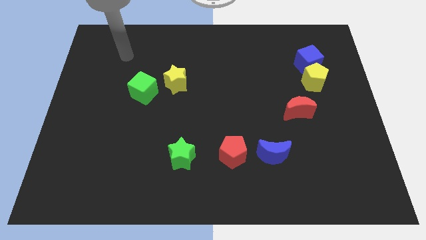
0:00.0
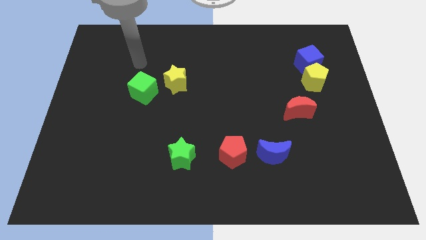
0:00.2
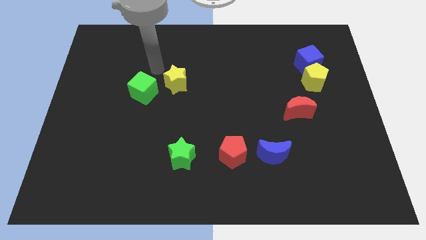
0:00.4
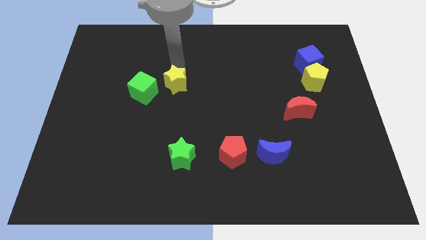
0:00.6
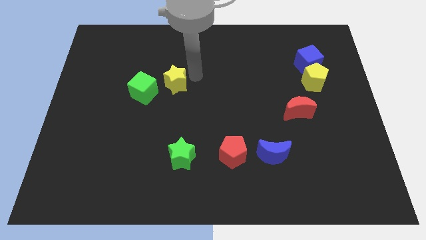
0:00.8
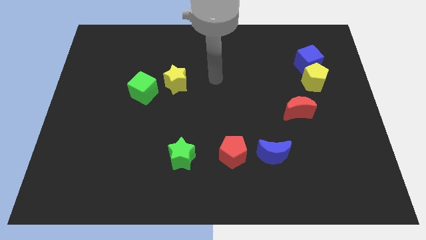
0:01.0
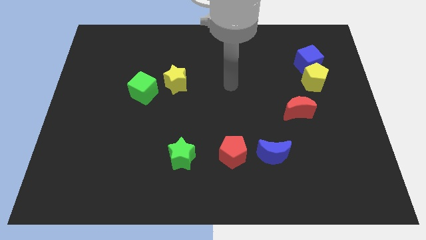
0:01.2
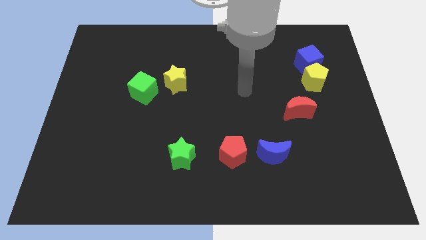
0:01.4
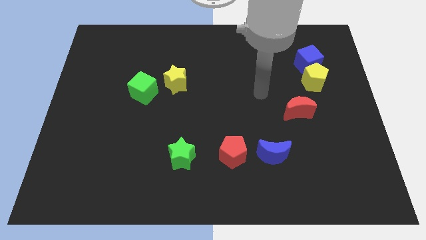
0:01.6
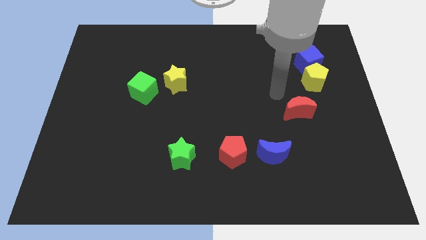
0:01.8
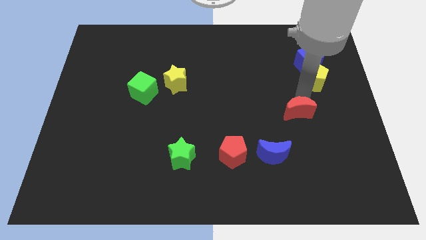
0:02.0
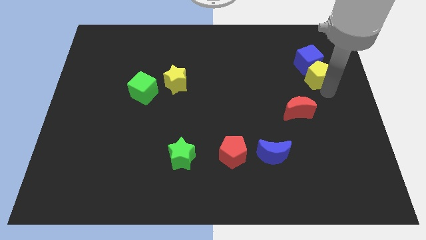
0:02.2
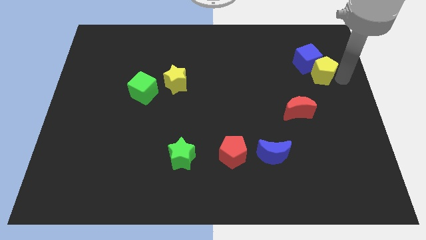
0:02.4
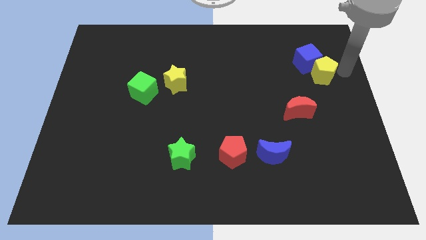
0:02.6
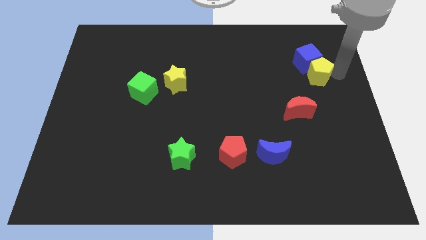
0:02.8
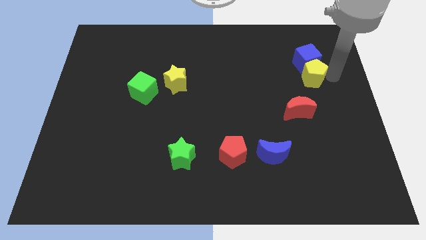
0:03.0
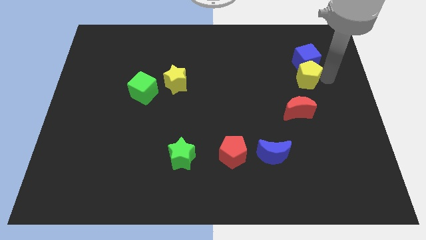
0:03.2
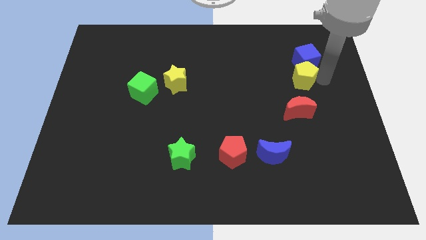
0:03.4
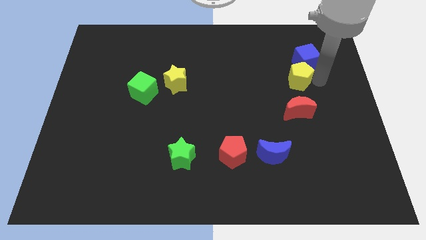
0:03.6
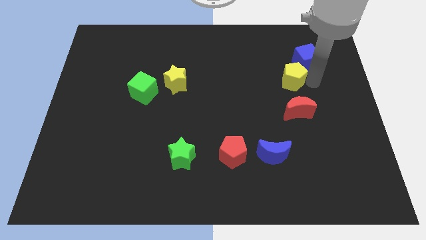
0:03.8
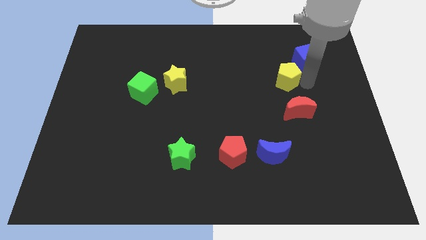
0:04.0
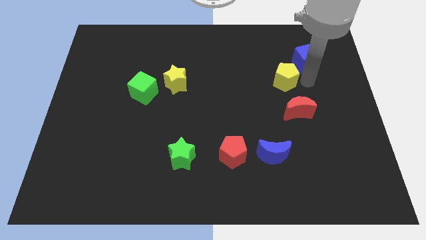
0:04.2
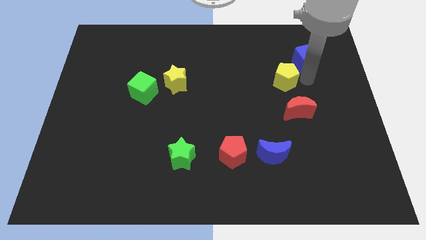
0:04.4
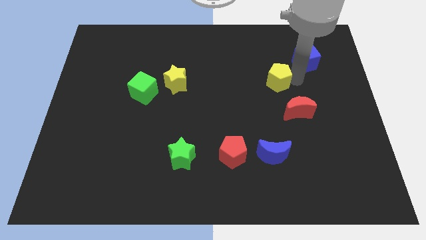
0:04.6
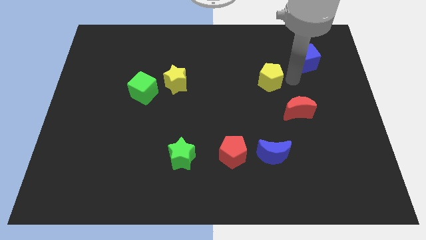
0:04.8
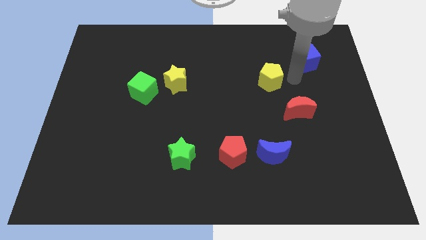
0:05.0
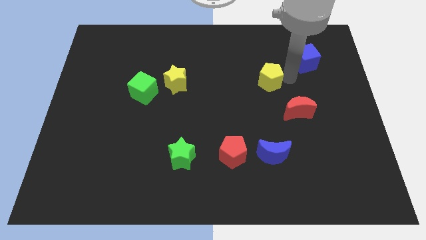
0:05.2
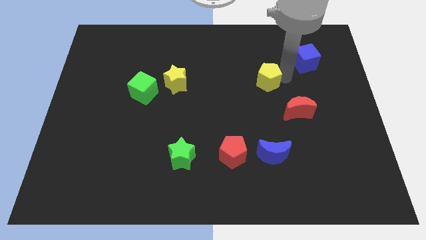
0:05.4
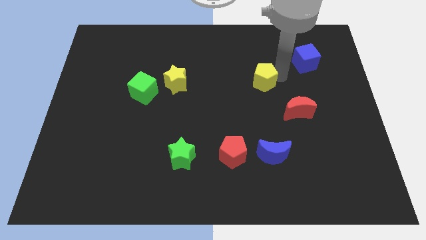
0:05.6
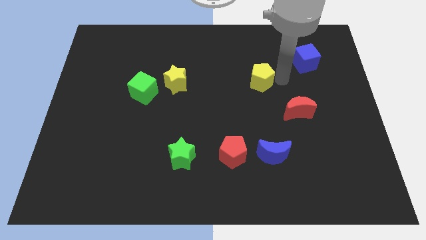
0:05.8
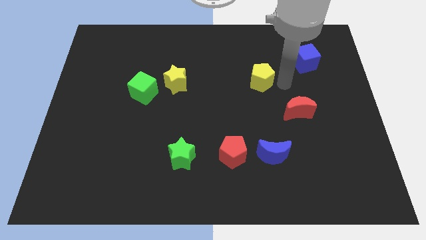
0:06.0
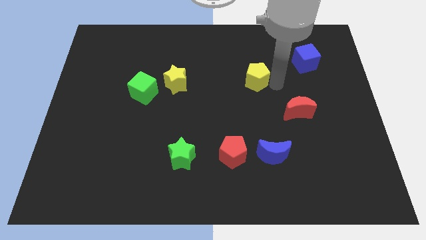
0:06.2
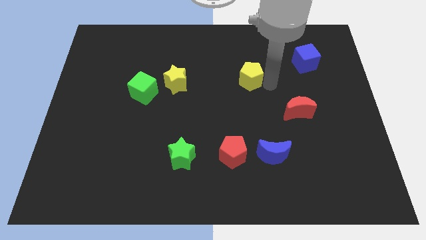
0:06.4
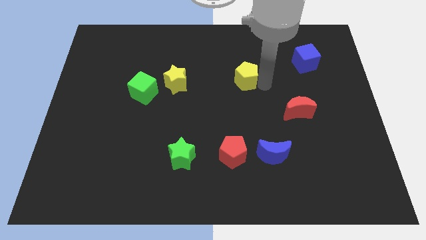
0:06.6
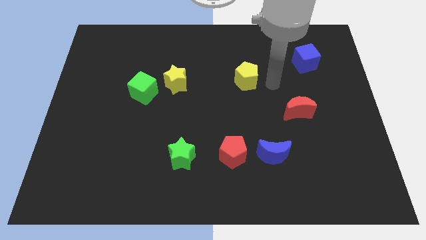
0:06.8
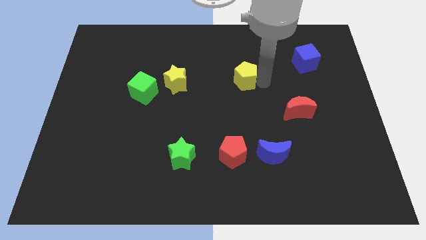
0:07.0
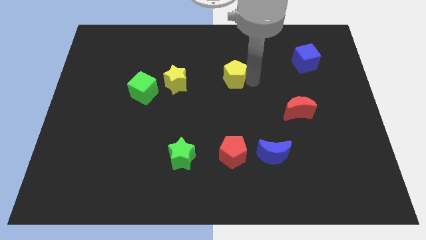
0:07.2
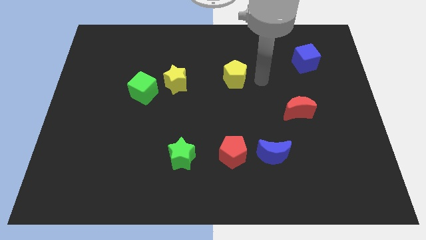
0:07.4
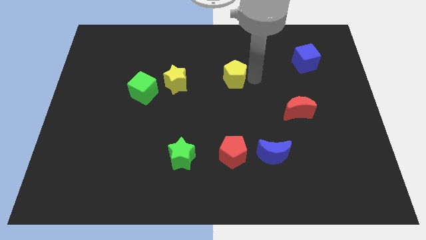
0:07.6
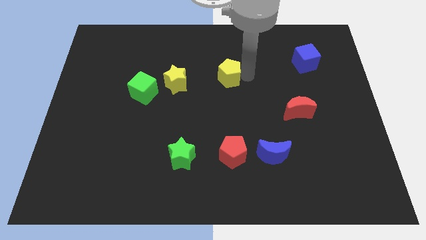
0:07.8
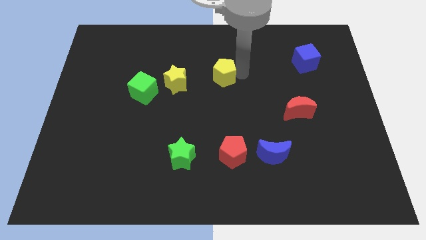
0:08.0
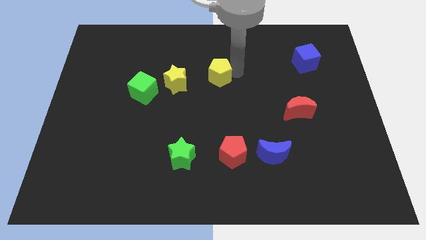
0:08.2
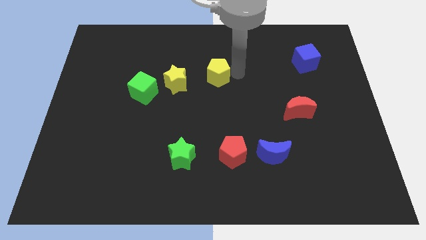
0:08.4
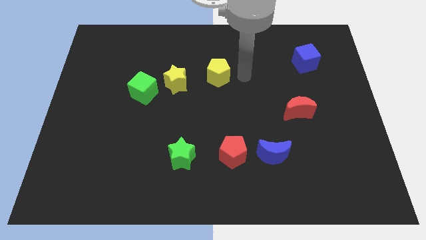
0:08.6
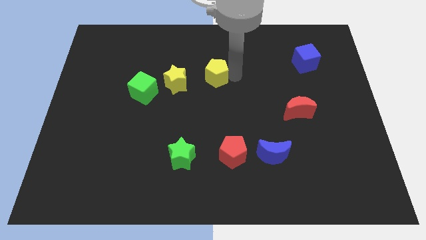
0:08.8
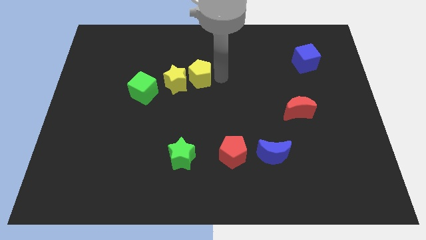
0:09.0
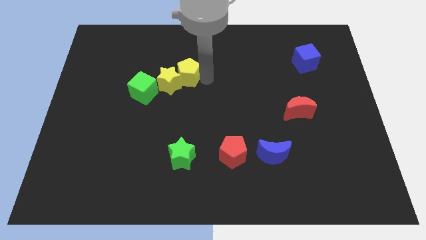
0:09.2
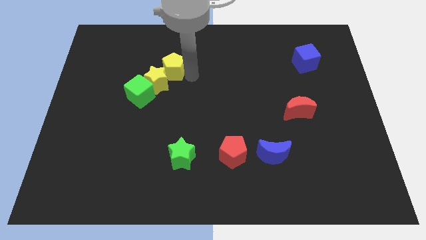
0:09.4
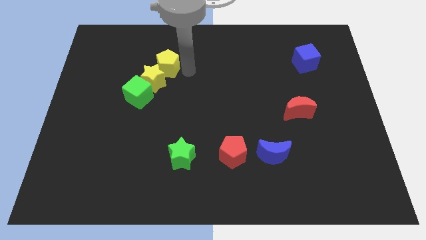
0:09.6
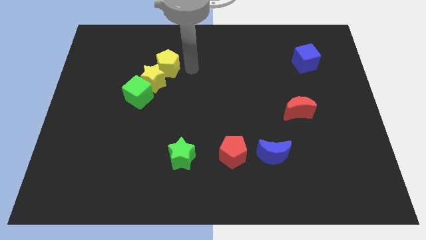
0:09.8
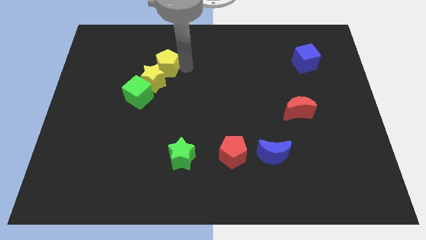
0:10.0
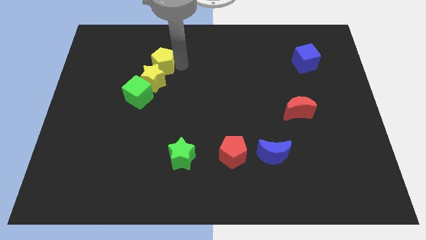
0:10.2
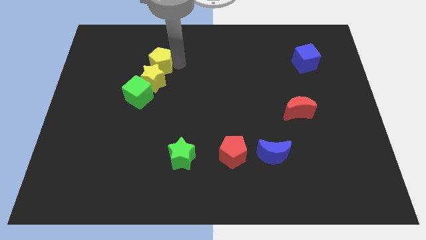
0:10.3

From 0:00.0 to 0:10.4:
put the yellow pentagon to the top side of the green cube

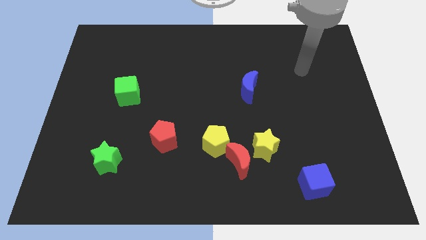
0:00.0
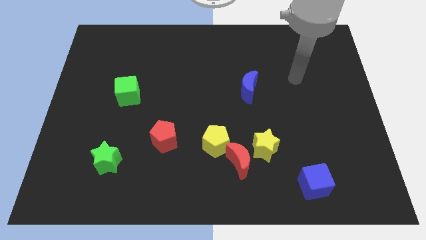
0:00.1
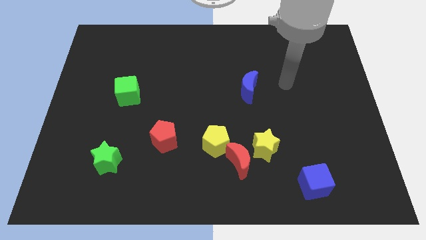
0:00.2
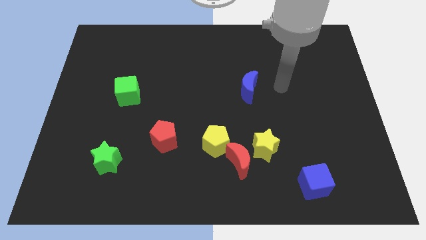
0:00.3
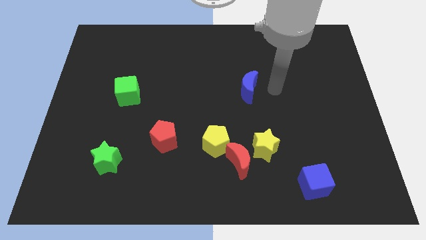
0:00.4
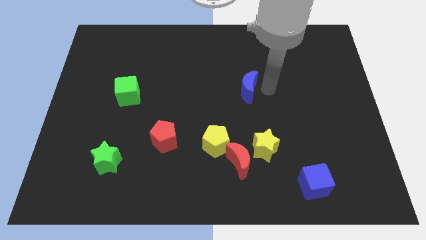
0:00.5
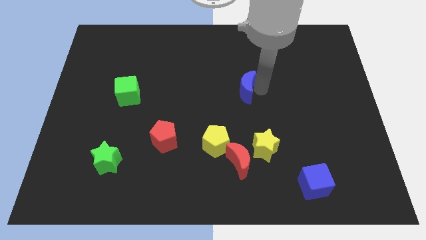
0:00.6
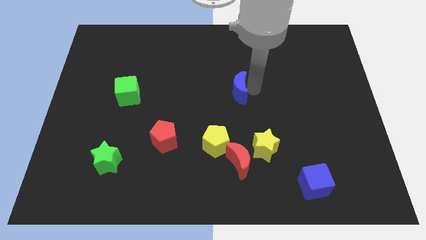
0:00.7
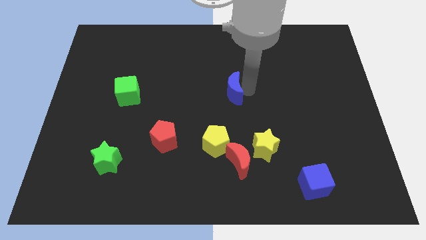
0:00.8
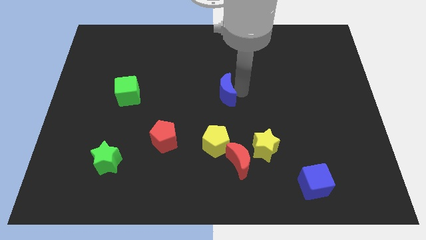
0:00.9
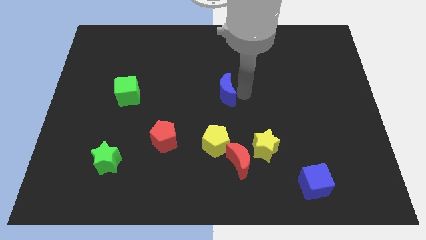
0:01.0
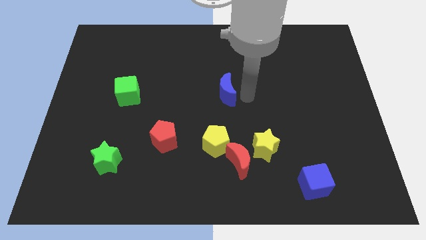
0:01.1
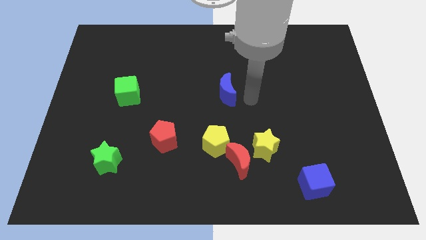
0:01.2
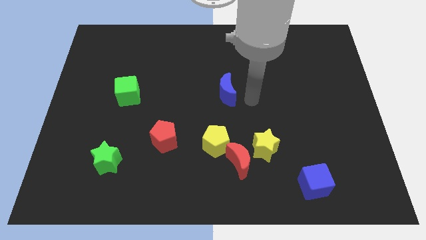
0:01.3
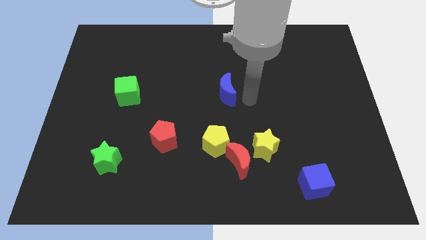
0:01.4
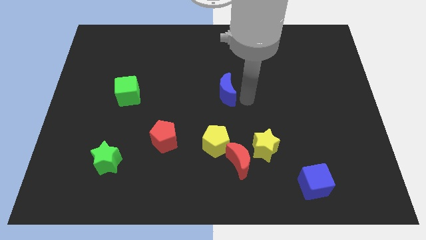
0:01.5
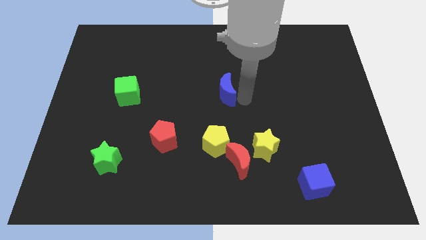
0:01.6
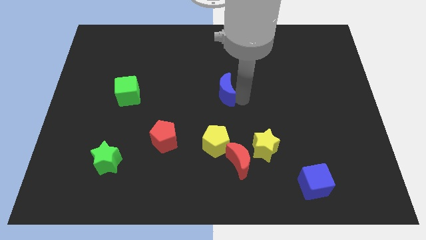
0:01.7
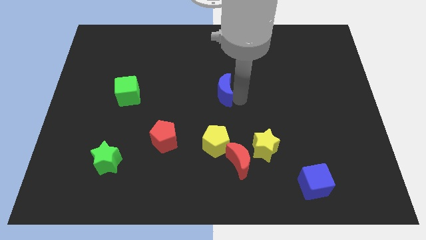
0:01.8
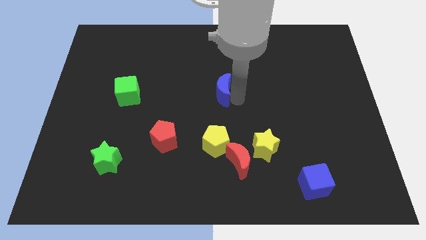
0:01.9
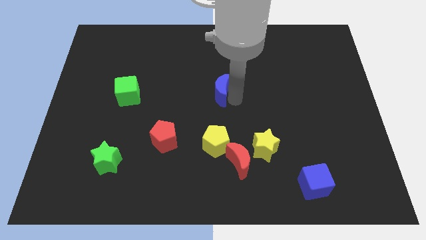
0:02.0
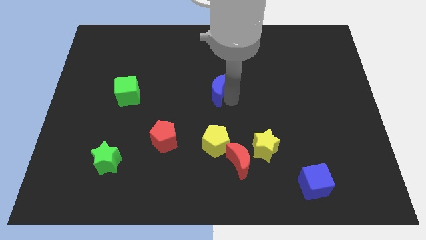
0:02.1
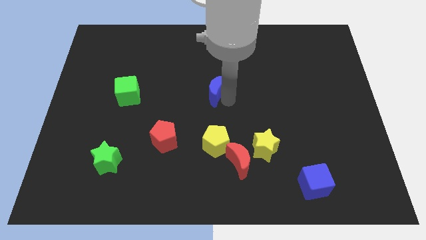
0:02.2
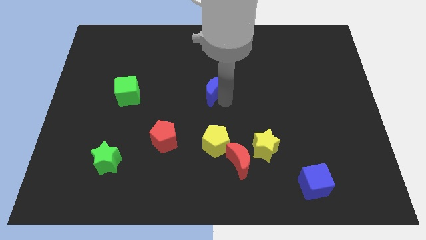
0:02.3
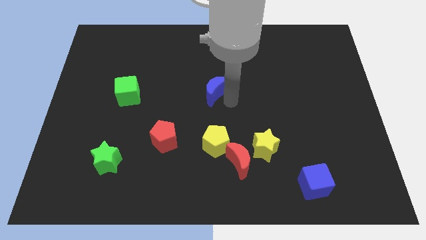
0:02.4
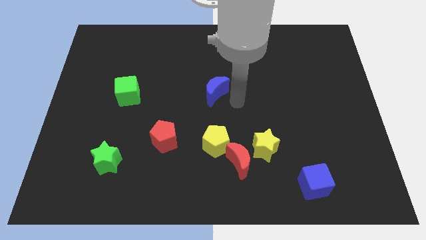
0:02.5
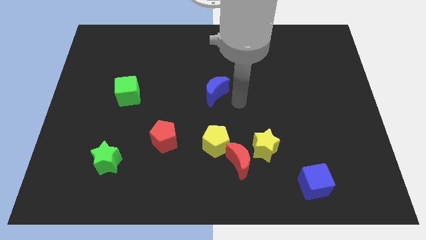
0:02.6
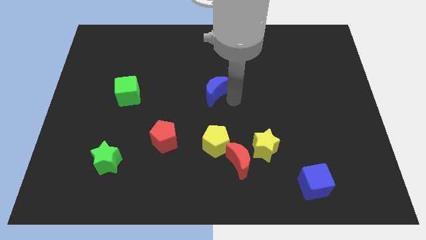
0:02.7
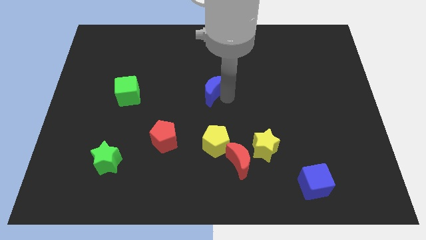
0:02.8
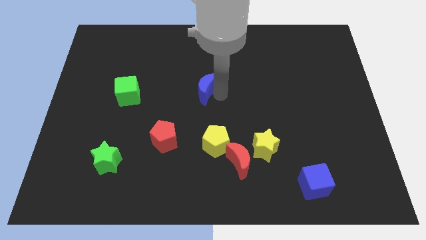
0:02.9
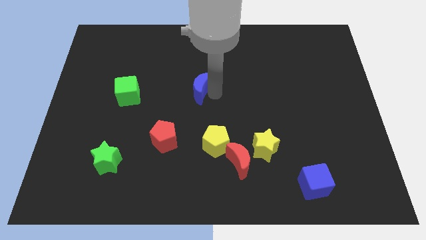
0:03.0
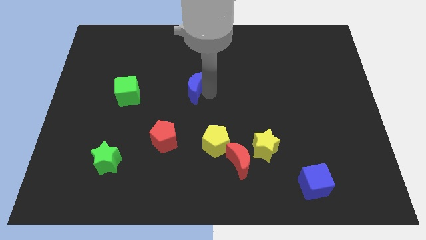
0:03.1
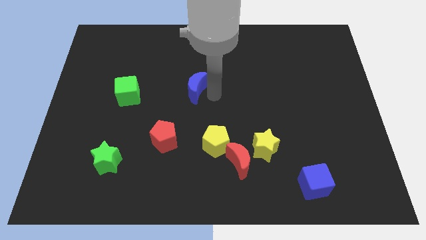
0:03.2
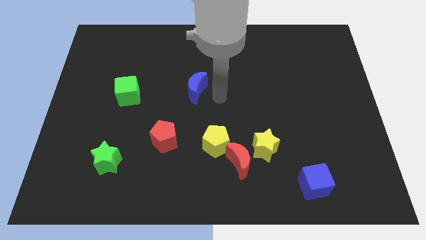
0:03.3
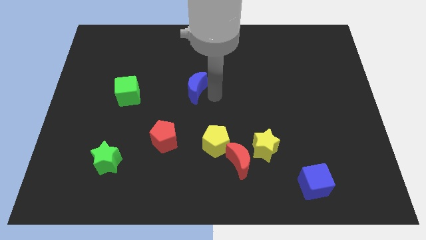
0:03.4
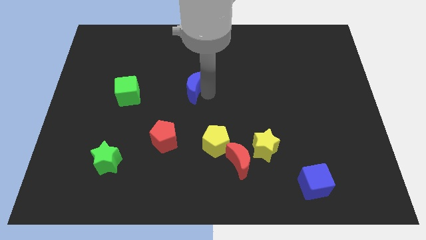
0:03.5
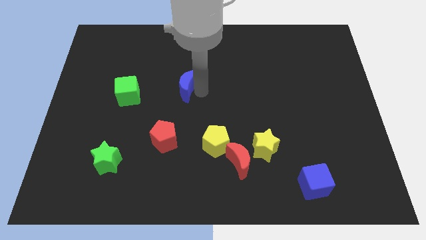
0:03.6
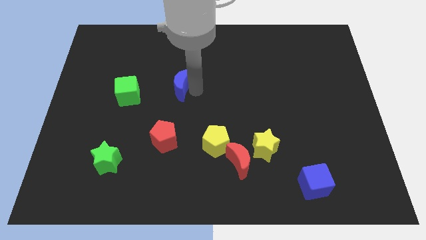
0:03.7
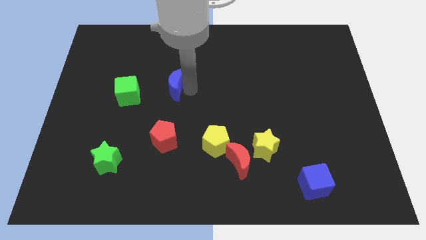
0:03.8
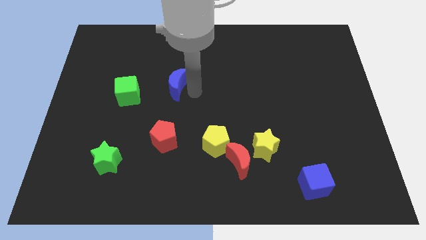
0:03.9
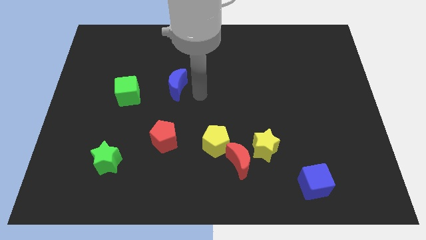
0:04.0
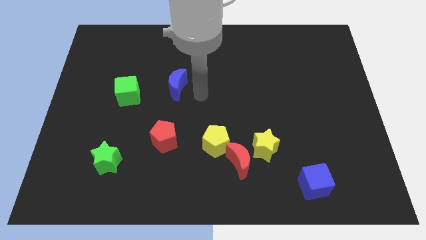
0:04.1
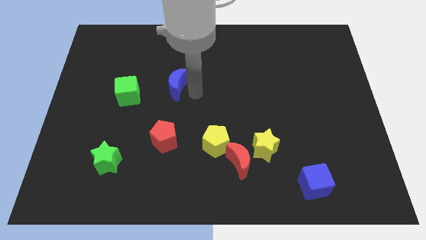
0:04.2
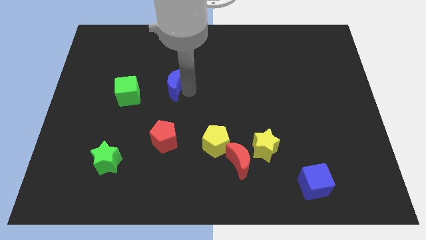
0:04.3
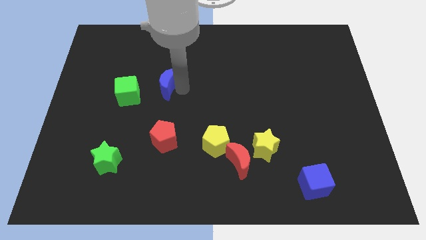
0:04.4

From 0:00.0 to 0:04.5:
move the blue moon to the top right side of the green cube
